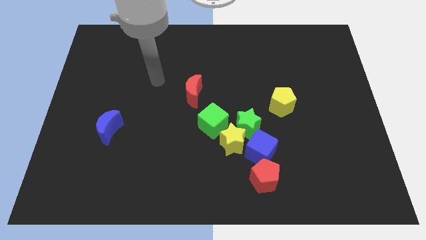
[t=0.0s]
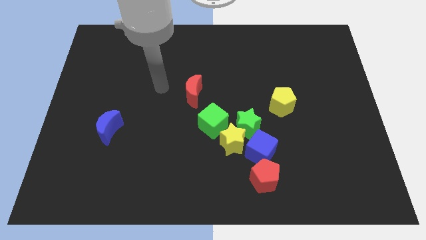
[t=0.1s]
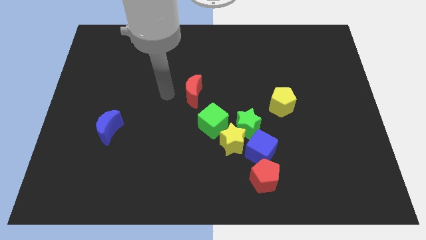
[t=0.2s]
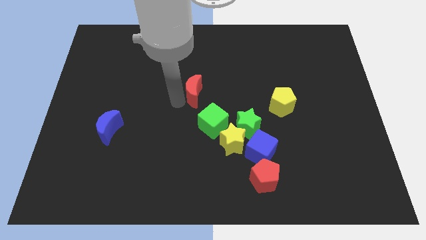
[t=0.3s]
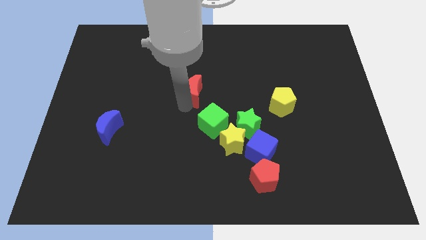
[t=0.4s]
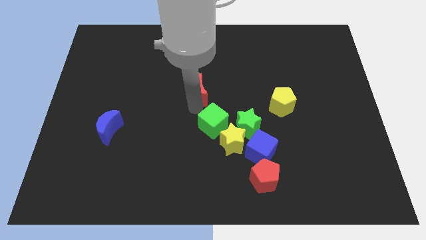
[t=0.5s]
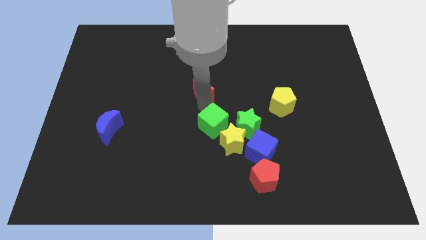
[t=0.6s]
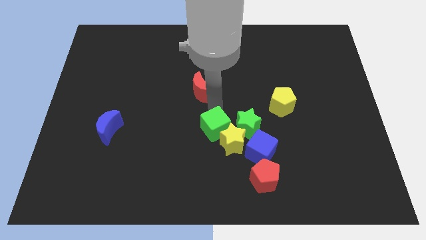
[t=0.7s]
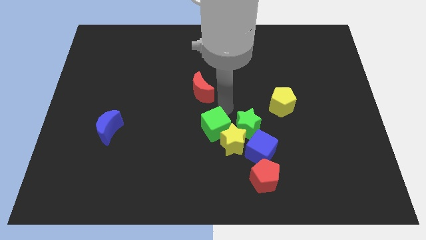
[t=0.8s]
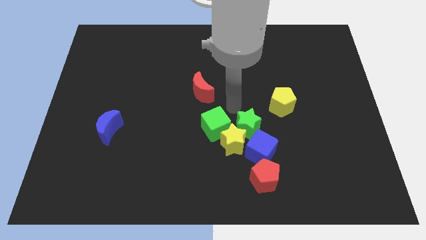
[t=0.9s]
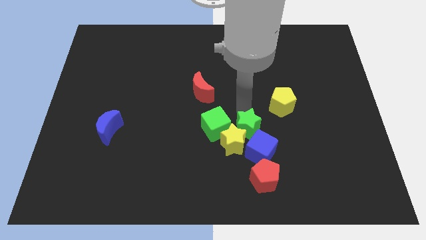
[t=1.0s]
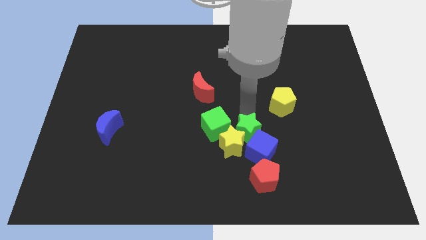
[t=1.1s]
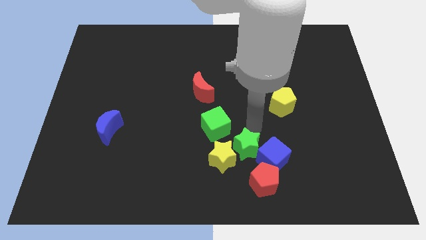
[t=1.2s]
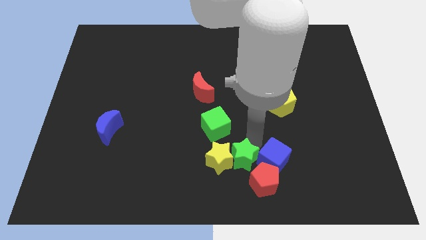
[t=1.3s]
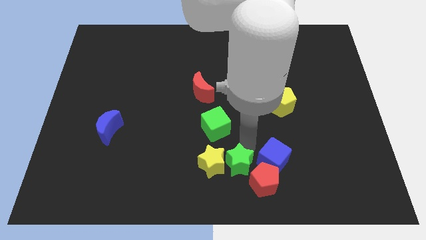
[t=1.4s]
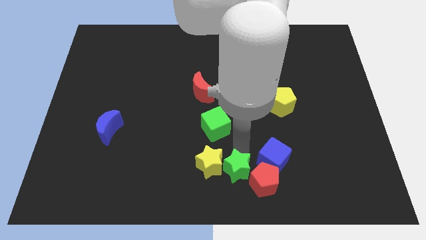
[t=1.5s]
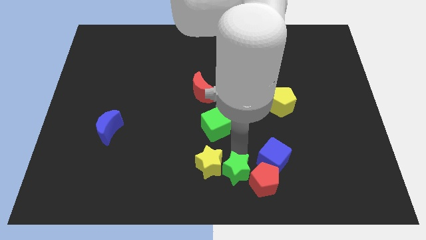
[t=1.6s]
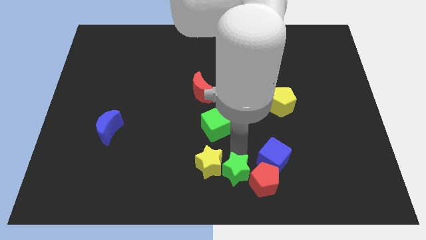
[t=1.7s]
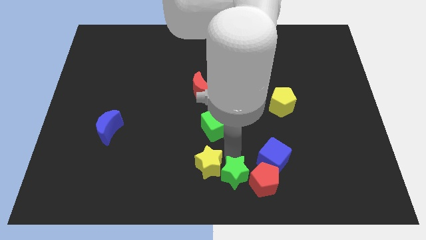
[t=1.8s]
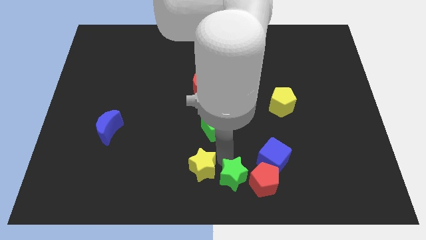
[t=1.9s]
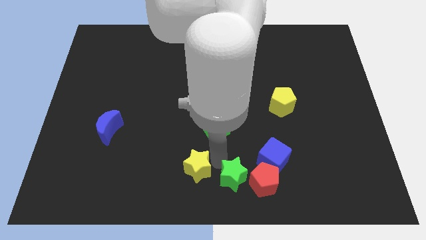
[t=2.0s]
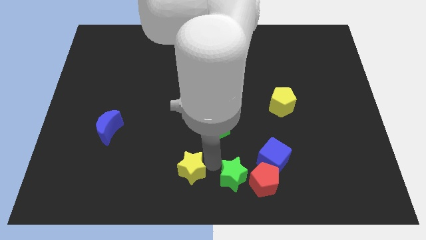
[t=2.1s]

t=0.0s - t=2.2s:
pull the yellow star apart from the group of blocks

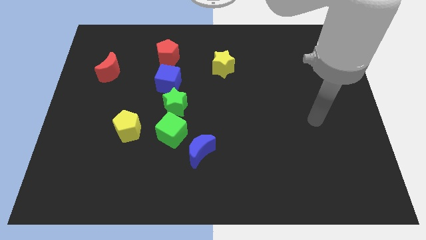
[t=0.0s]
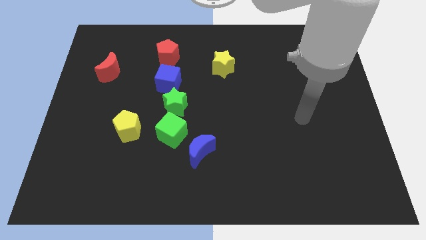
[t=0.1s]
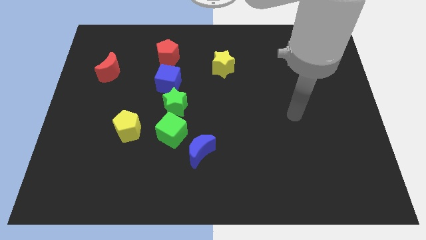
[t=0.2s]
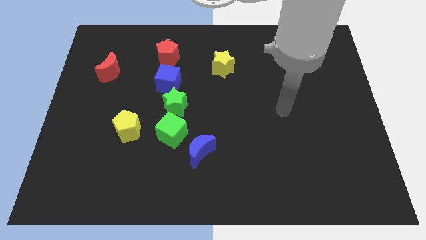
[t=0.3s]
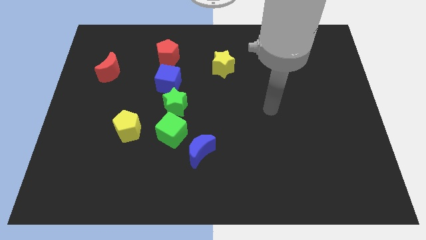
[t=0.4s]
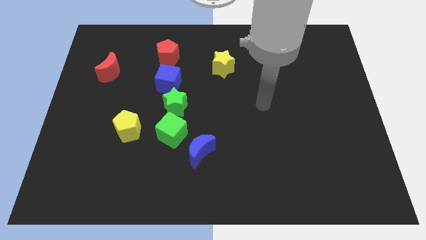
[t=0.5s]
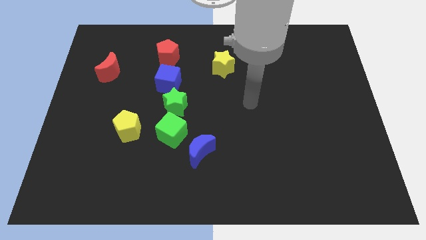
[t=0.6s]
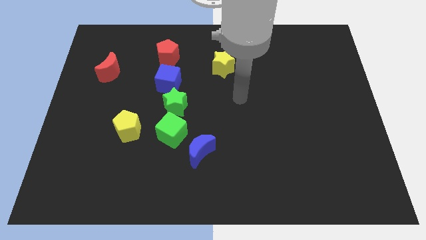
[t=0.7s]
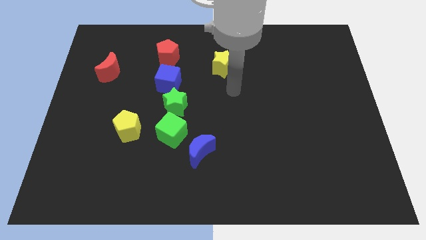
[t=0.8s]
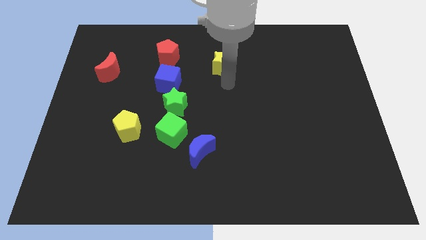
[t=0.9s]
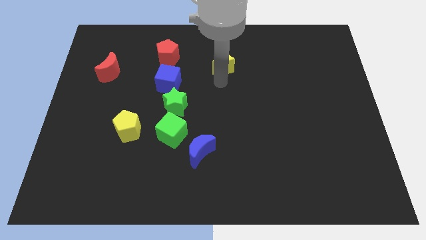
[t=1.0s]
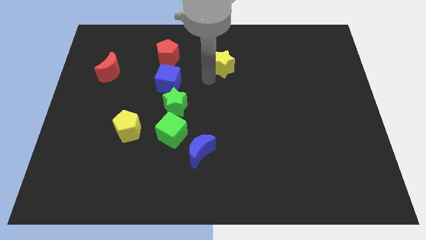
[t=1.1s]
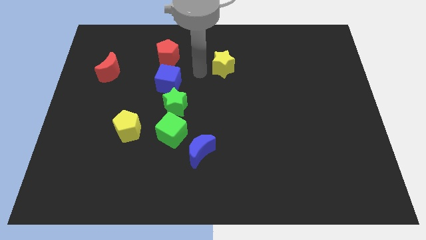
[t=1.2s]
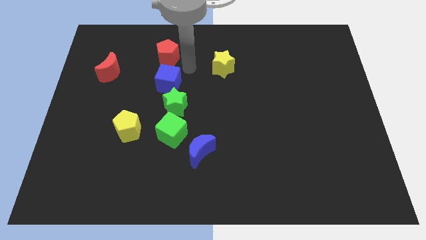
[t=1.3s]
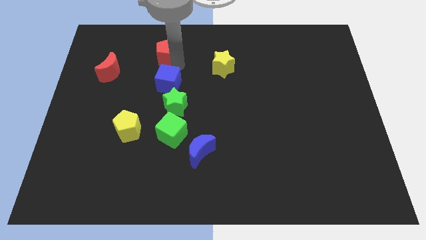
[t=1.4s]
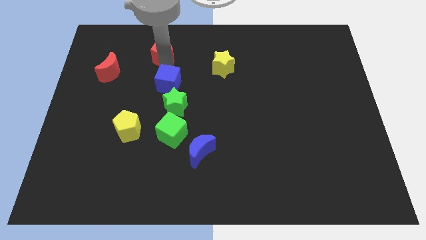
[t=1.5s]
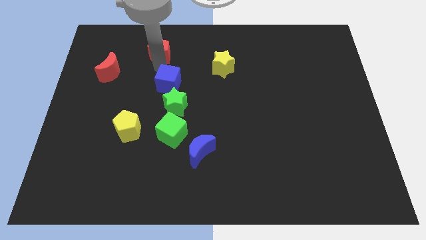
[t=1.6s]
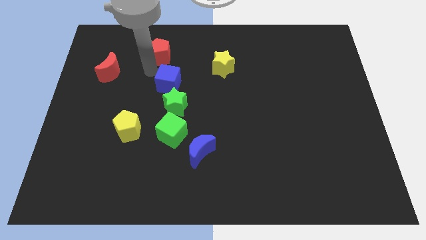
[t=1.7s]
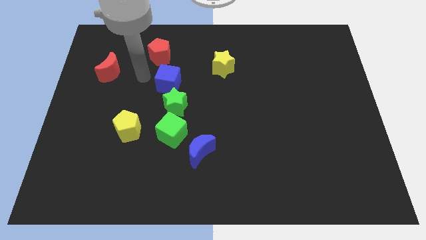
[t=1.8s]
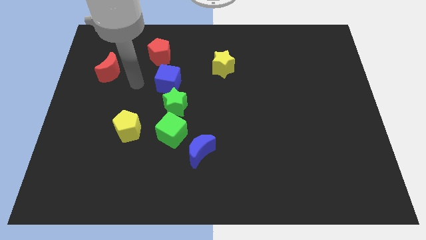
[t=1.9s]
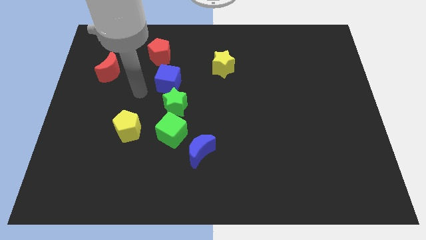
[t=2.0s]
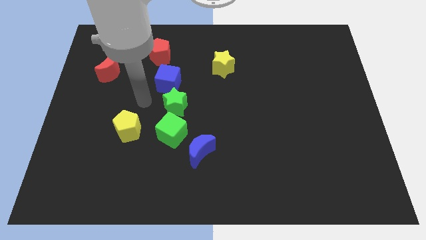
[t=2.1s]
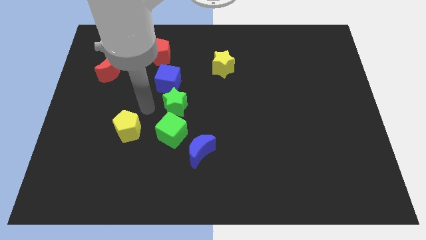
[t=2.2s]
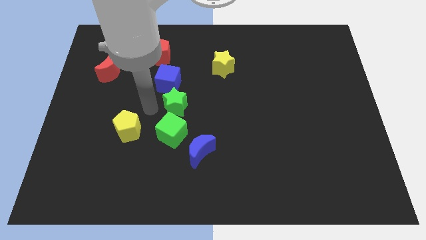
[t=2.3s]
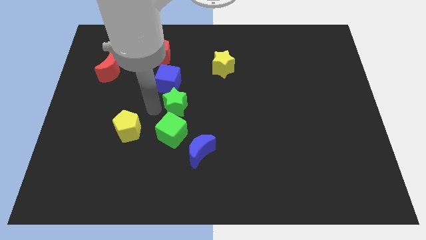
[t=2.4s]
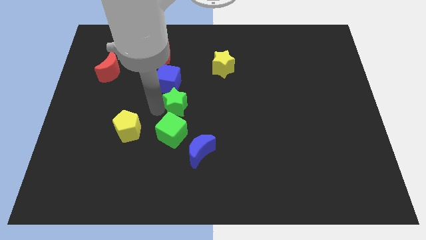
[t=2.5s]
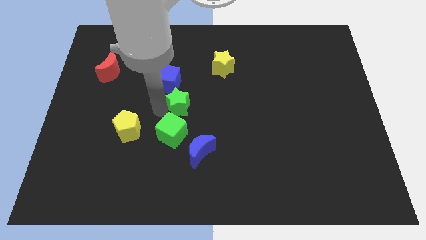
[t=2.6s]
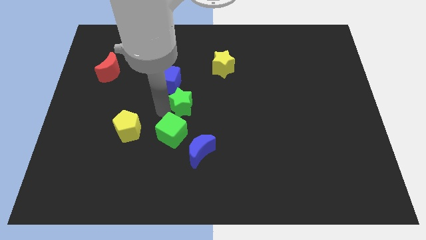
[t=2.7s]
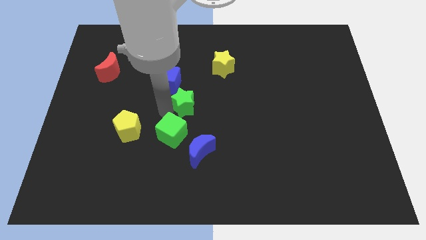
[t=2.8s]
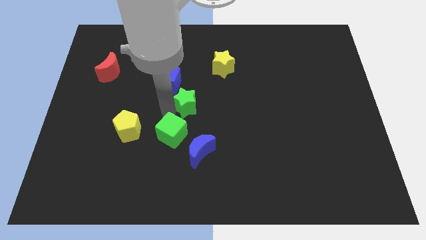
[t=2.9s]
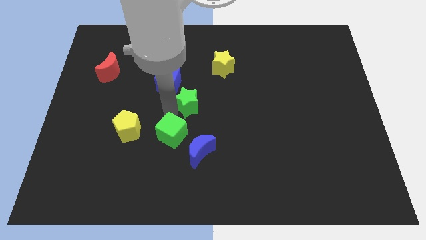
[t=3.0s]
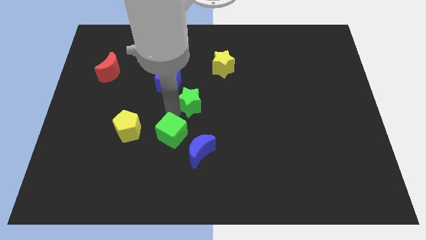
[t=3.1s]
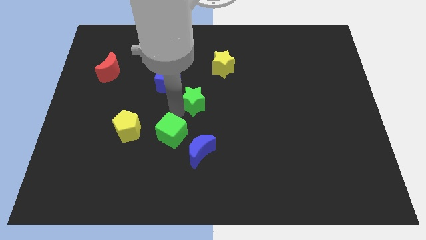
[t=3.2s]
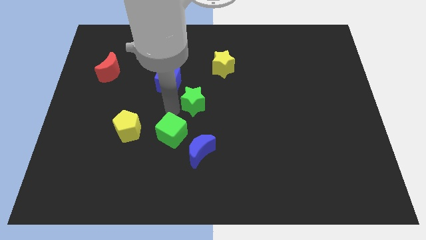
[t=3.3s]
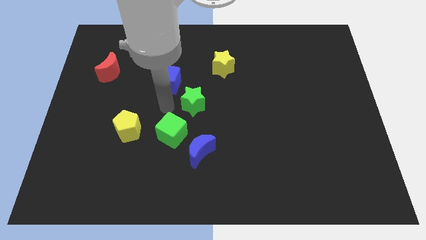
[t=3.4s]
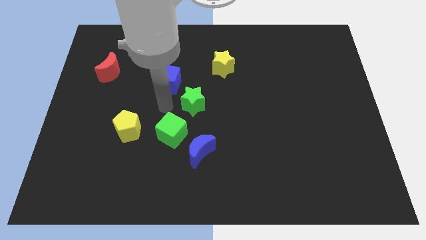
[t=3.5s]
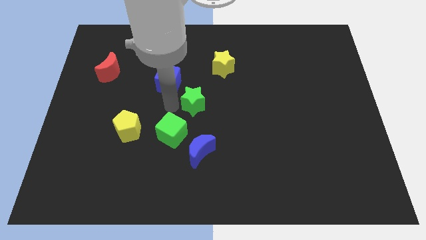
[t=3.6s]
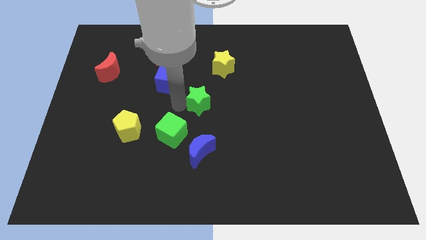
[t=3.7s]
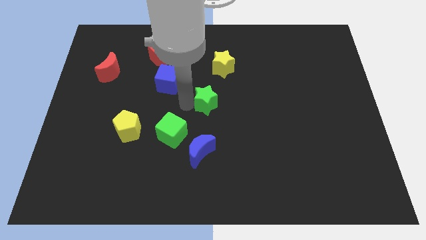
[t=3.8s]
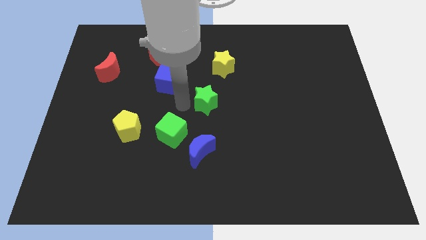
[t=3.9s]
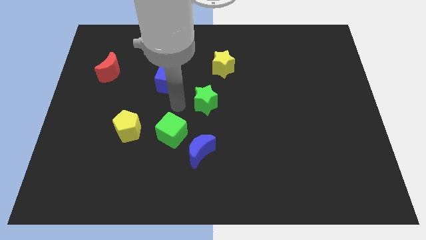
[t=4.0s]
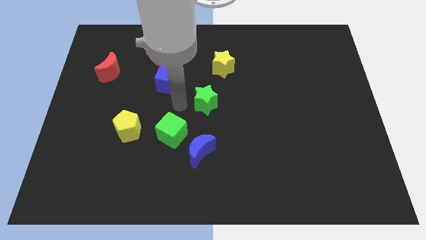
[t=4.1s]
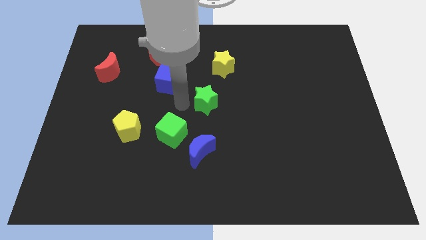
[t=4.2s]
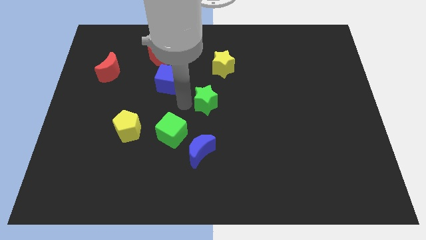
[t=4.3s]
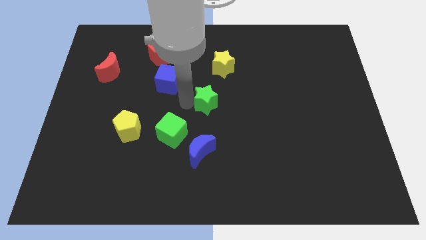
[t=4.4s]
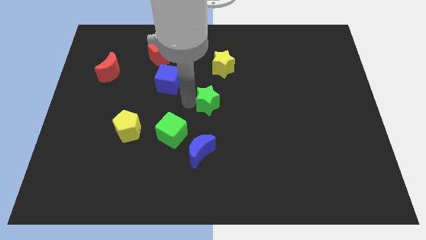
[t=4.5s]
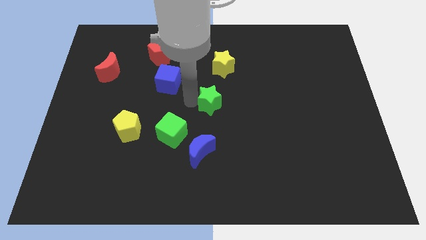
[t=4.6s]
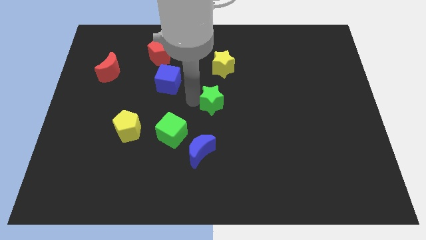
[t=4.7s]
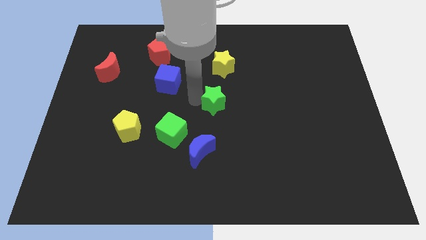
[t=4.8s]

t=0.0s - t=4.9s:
move the green star away from the blue cube and green cube

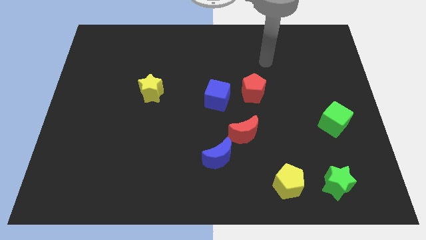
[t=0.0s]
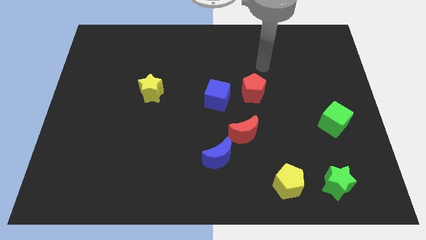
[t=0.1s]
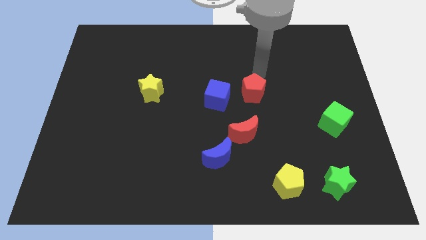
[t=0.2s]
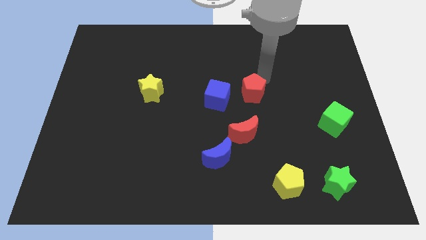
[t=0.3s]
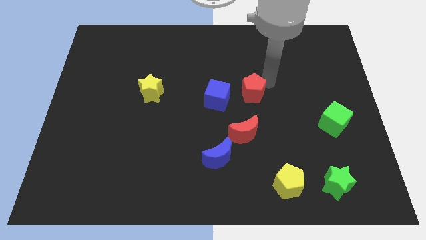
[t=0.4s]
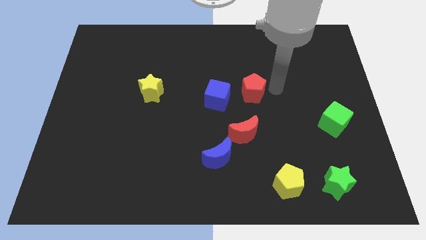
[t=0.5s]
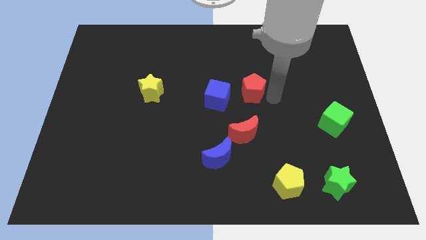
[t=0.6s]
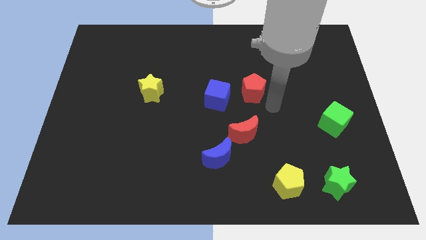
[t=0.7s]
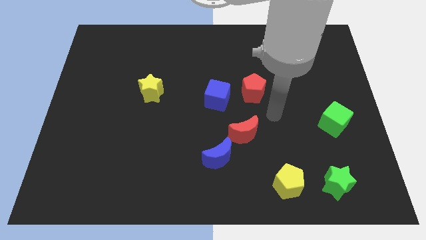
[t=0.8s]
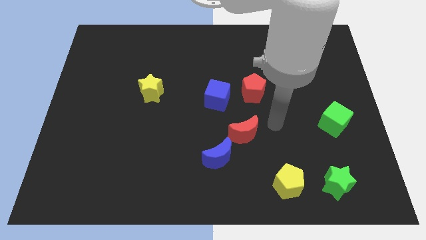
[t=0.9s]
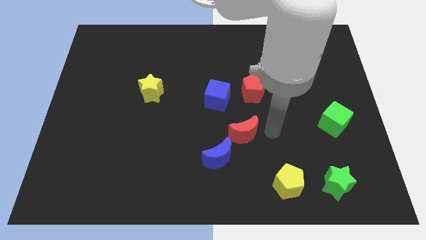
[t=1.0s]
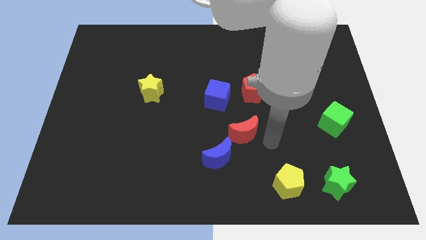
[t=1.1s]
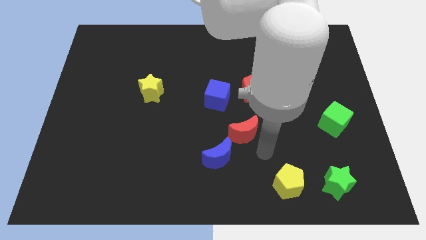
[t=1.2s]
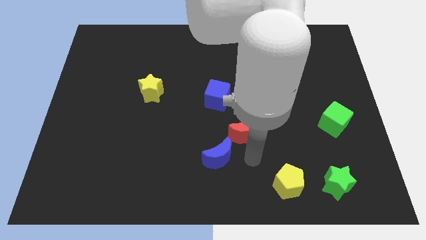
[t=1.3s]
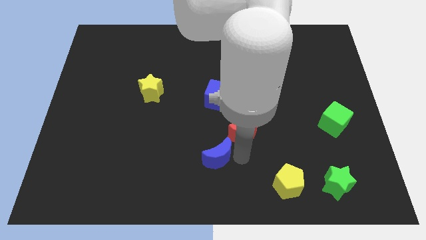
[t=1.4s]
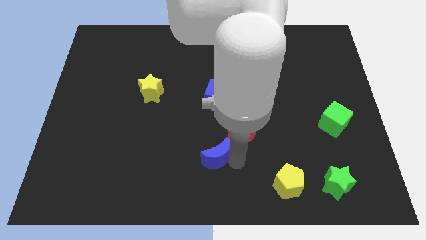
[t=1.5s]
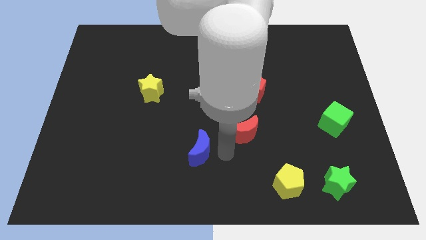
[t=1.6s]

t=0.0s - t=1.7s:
move the red moon away from the blue moon

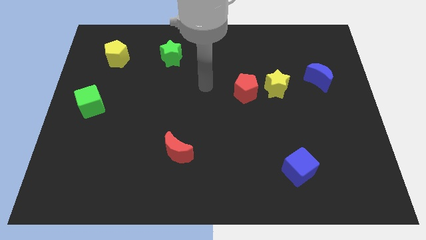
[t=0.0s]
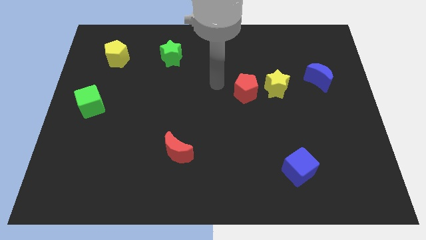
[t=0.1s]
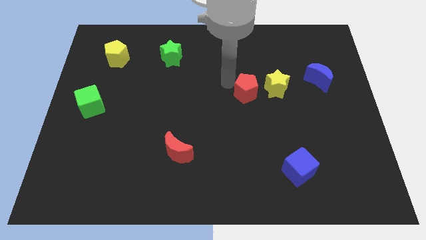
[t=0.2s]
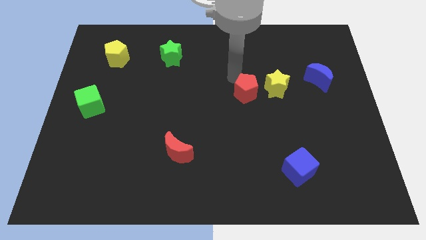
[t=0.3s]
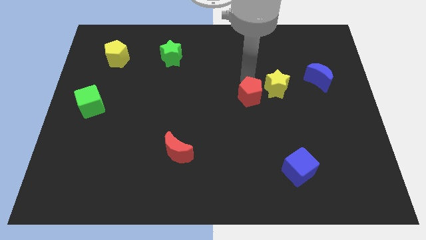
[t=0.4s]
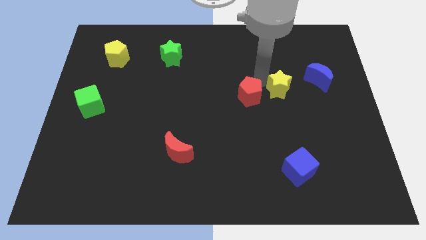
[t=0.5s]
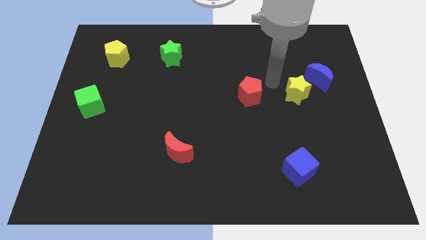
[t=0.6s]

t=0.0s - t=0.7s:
move the red pentagon away from the yellow star
